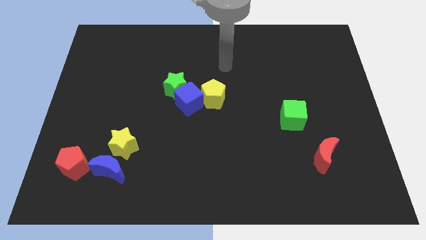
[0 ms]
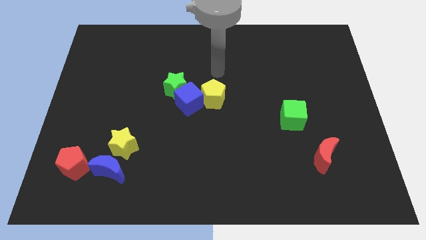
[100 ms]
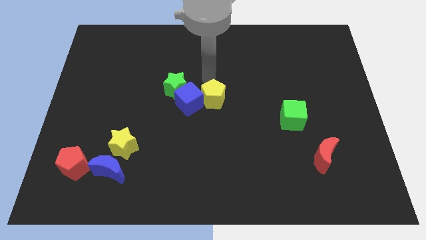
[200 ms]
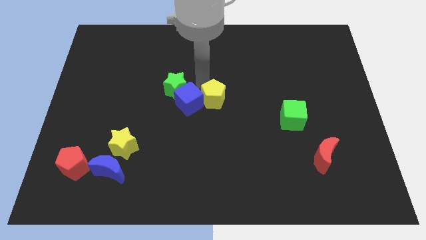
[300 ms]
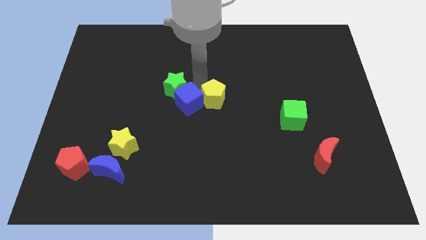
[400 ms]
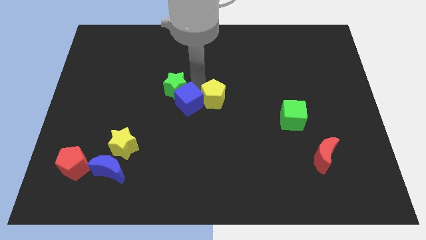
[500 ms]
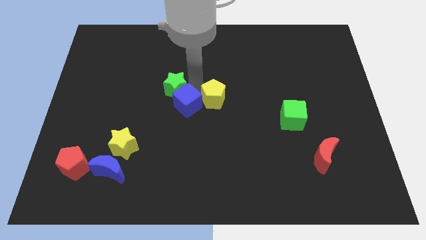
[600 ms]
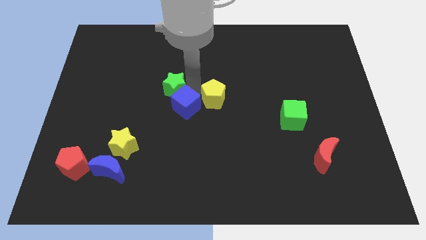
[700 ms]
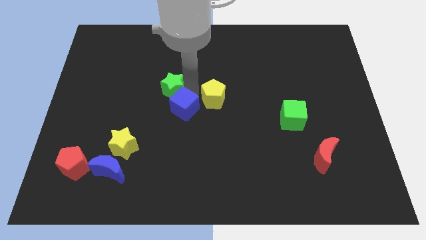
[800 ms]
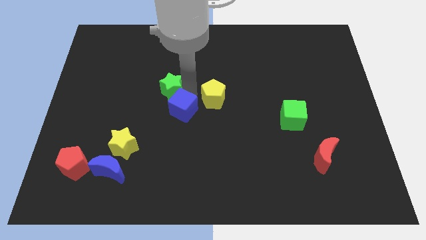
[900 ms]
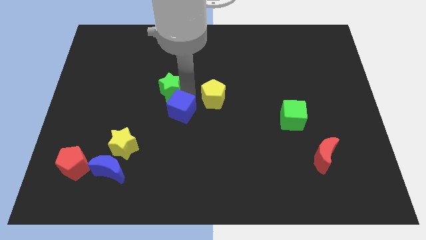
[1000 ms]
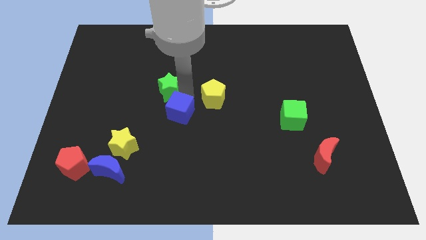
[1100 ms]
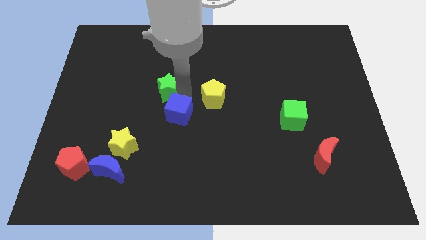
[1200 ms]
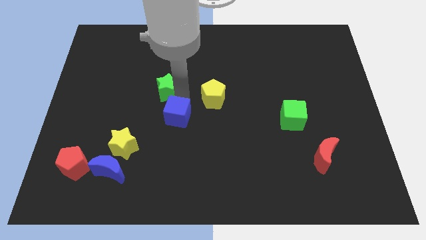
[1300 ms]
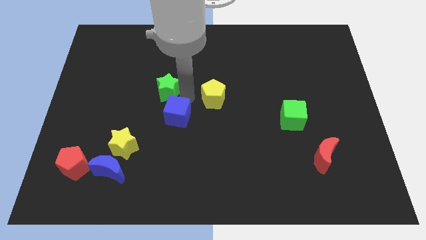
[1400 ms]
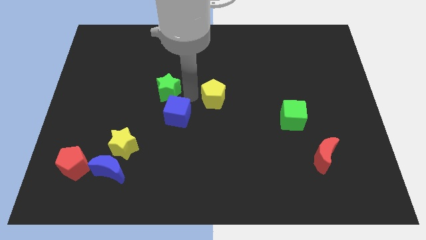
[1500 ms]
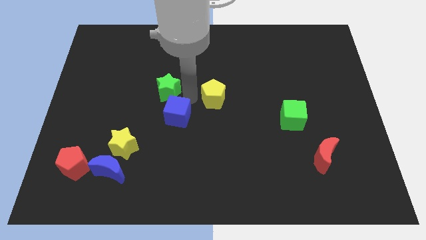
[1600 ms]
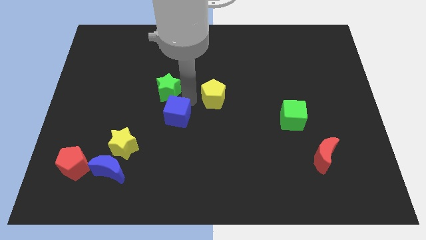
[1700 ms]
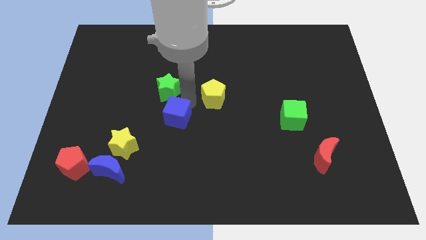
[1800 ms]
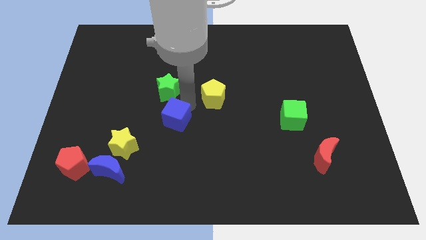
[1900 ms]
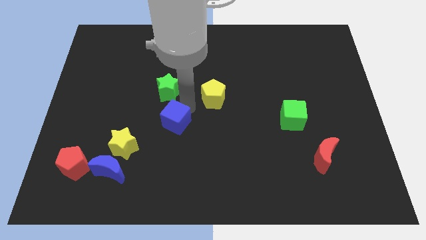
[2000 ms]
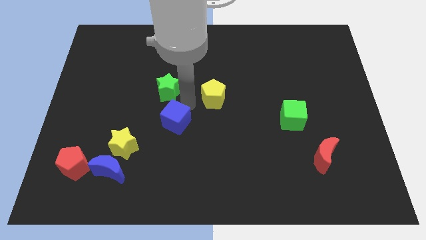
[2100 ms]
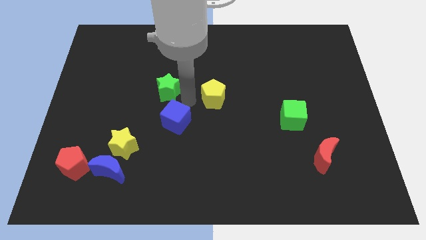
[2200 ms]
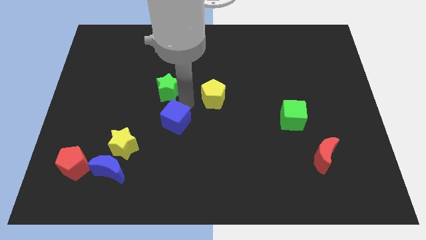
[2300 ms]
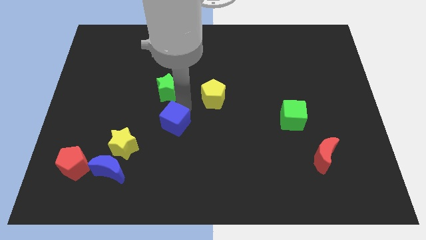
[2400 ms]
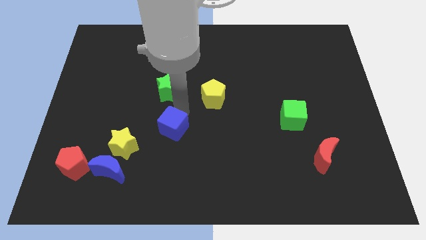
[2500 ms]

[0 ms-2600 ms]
pull the blue cube apart from the green star and yellow pentagon

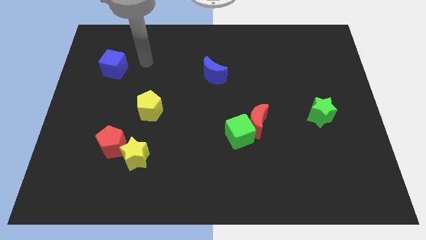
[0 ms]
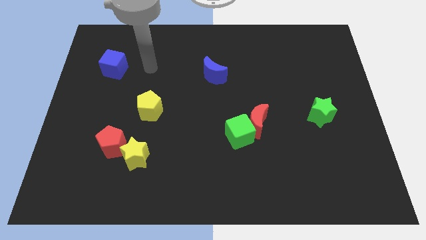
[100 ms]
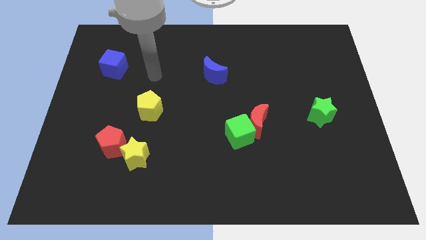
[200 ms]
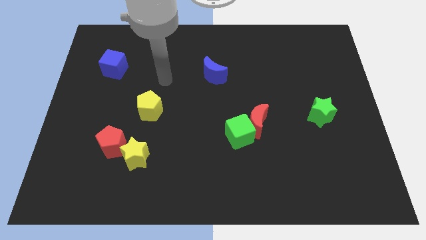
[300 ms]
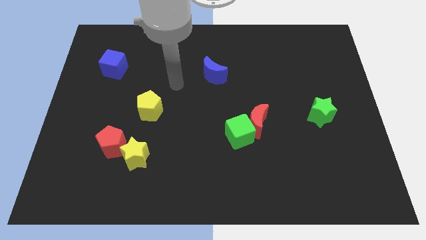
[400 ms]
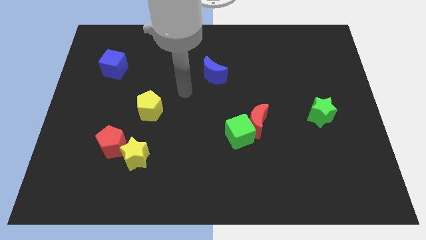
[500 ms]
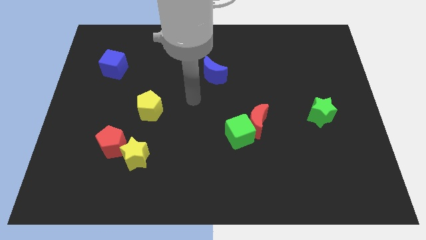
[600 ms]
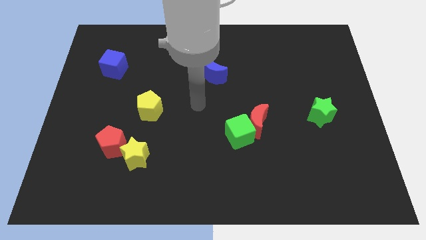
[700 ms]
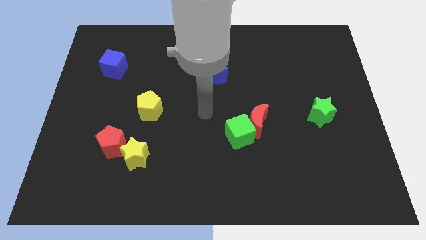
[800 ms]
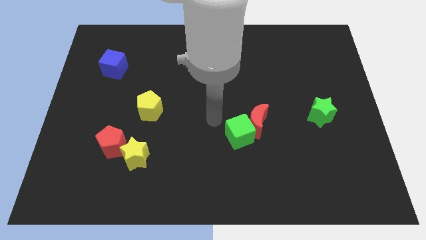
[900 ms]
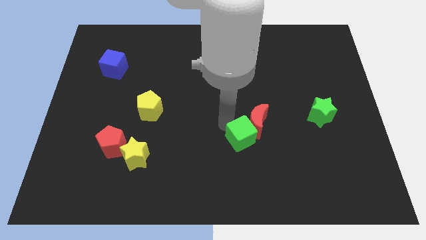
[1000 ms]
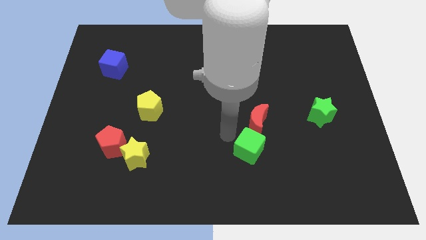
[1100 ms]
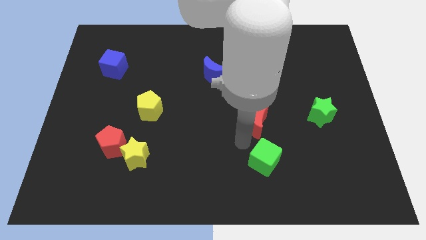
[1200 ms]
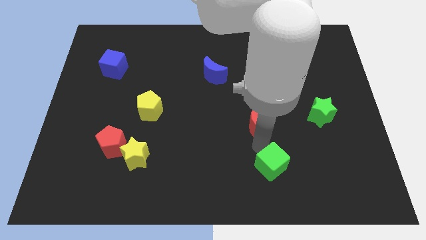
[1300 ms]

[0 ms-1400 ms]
pull the red moon apart from the green cube

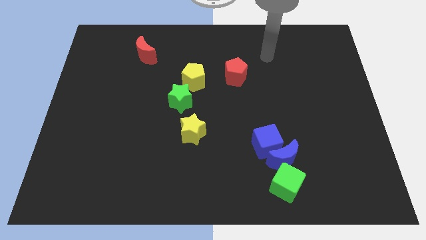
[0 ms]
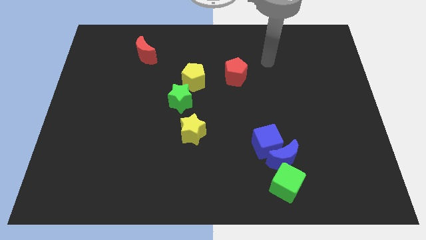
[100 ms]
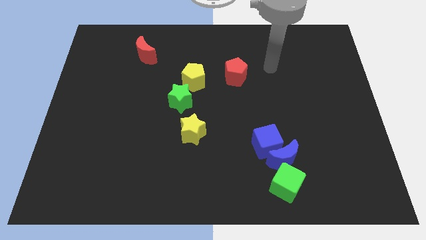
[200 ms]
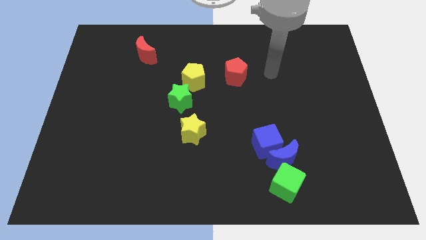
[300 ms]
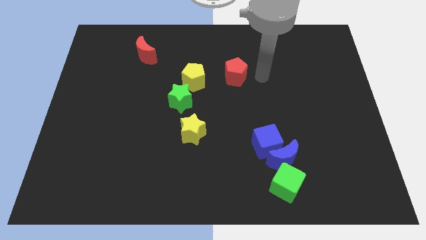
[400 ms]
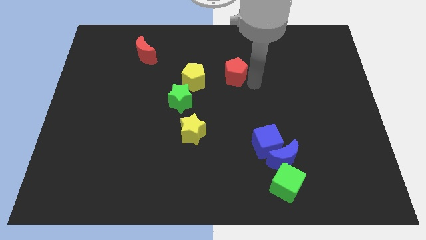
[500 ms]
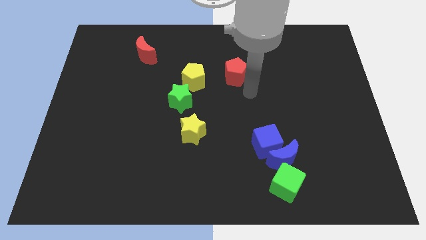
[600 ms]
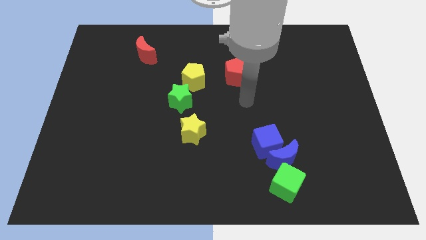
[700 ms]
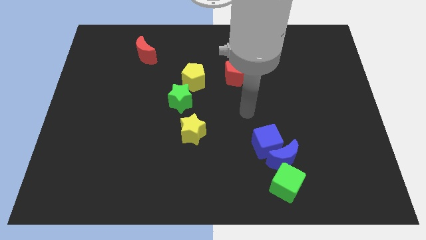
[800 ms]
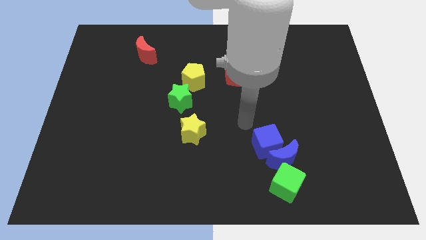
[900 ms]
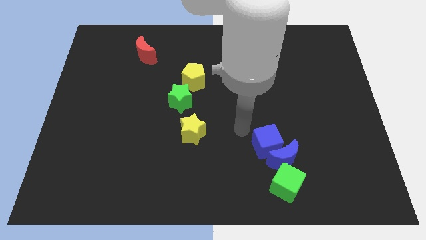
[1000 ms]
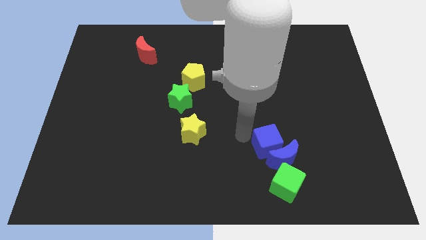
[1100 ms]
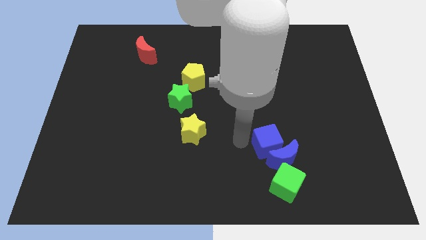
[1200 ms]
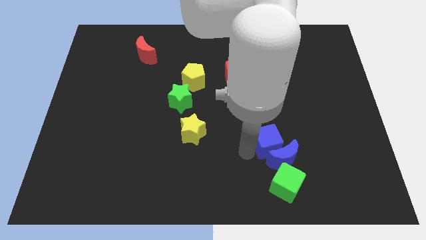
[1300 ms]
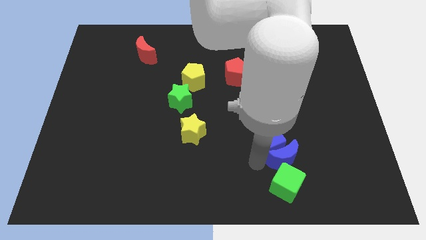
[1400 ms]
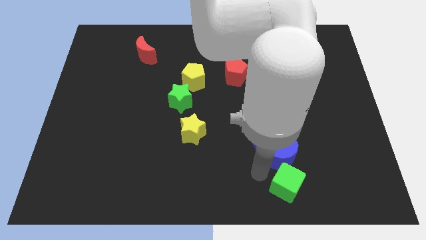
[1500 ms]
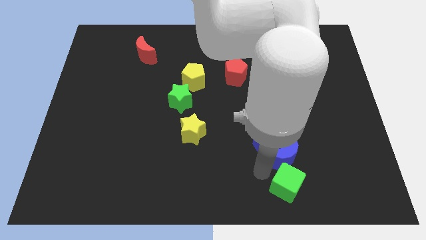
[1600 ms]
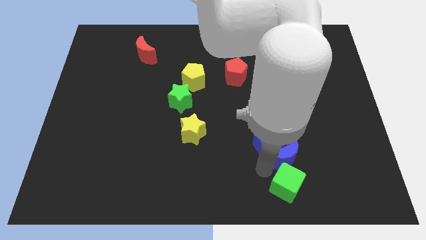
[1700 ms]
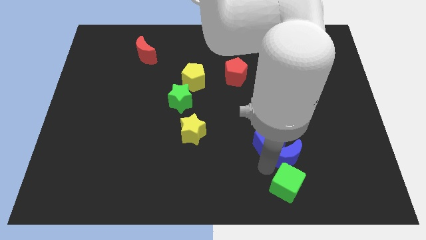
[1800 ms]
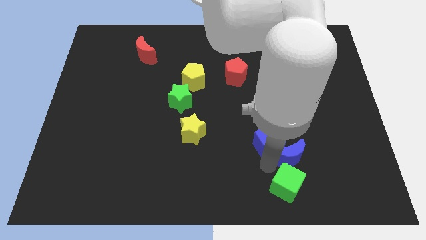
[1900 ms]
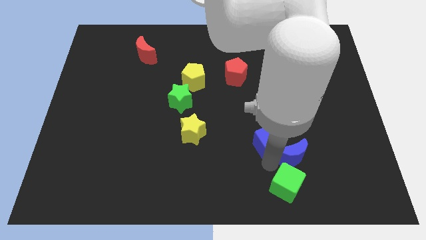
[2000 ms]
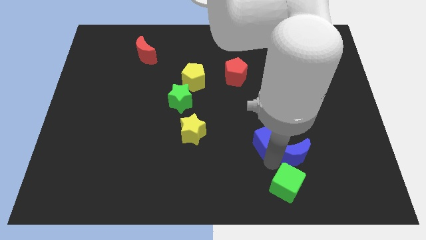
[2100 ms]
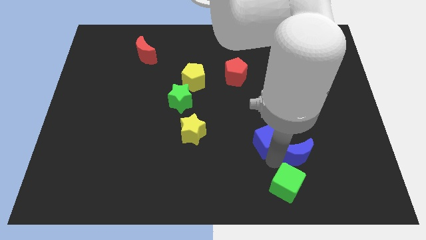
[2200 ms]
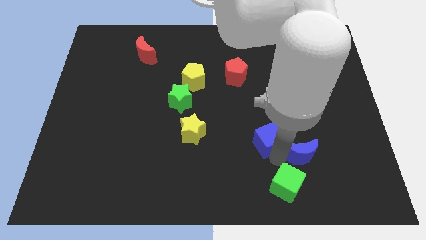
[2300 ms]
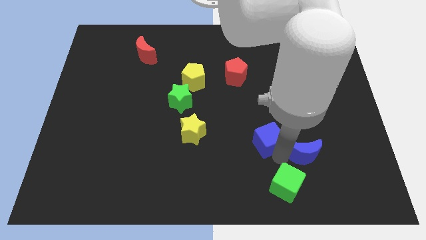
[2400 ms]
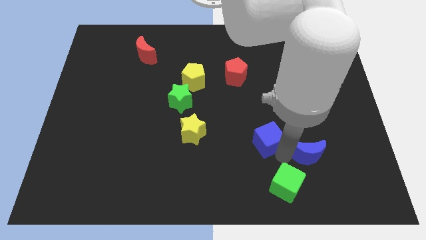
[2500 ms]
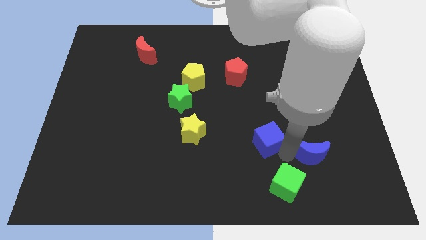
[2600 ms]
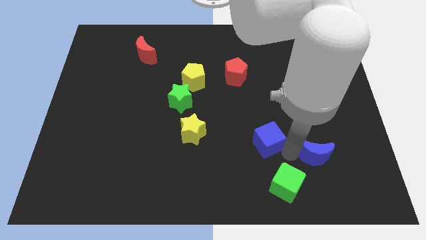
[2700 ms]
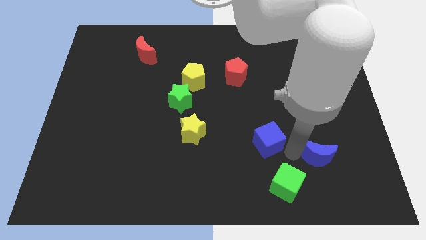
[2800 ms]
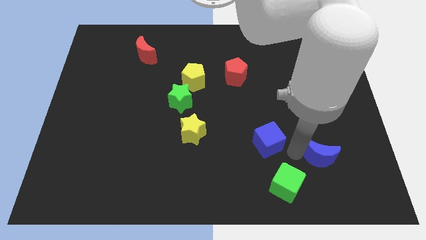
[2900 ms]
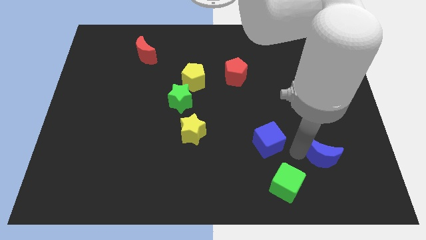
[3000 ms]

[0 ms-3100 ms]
pull the blue moon apart from the blue cube and green cube

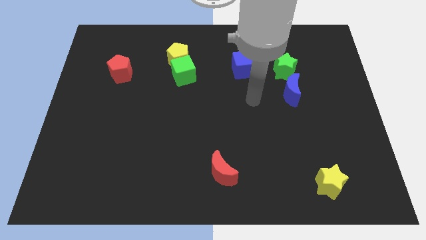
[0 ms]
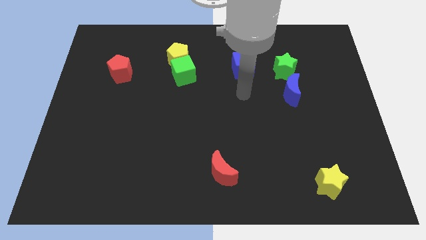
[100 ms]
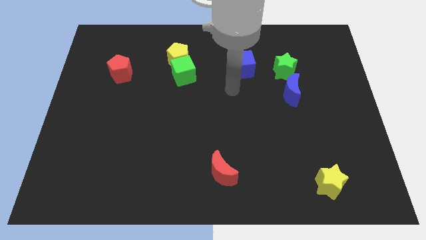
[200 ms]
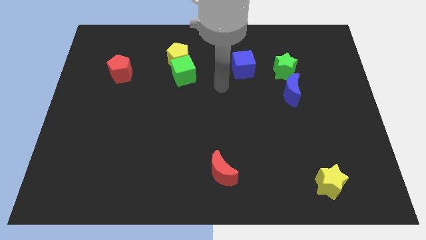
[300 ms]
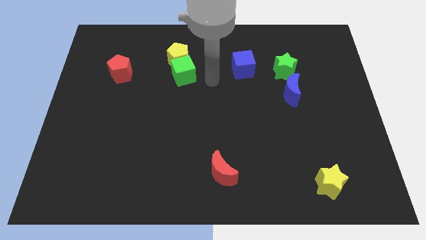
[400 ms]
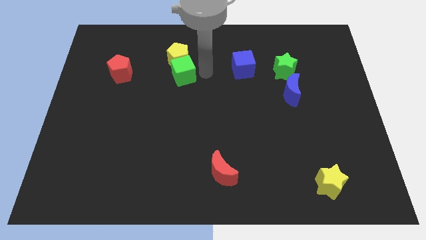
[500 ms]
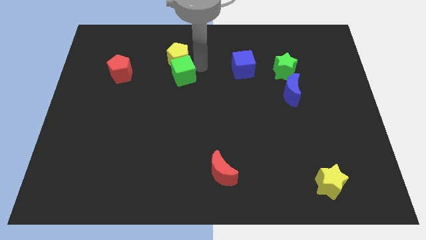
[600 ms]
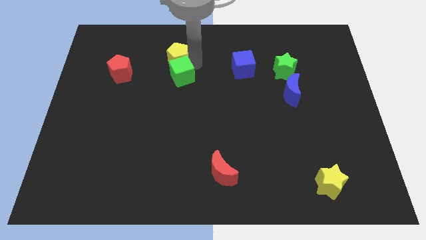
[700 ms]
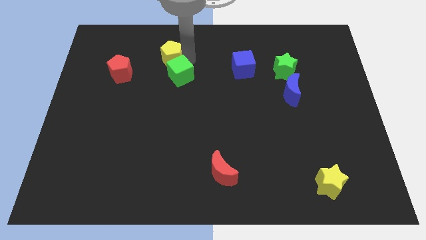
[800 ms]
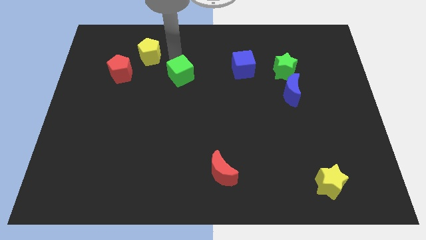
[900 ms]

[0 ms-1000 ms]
move the green cube away from the yellow pentagon

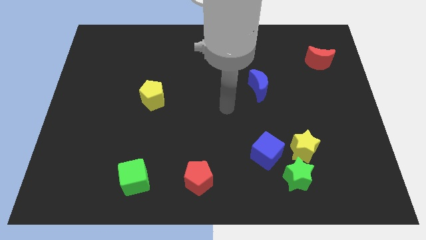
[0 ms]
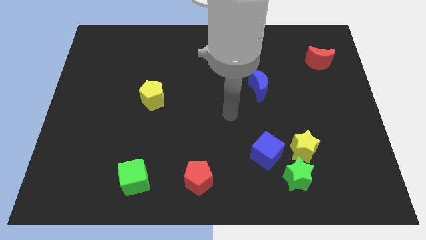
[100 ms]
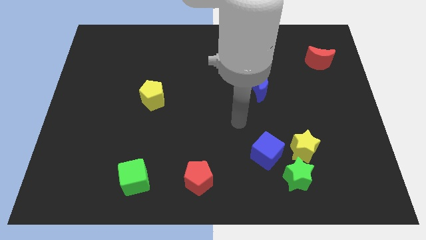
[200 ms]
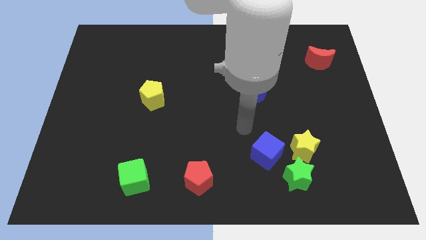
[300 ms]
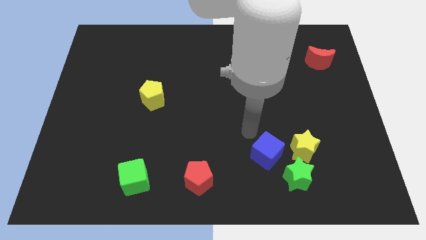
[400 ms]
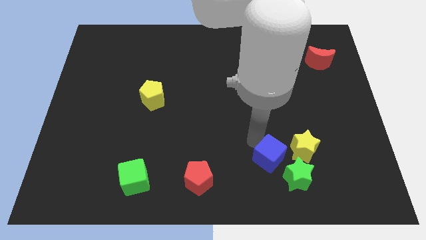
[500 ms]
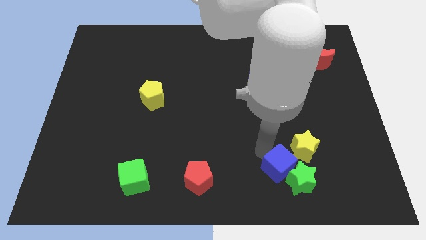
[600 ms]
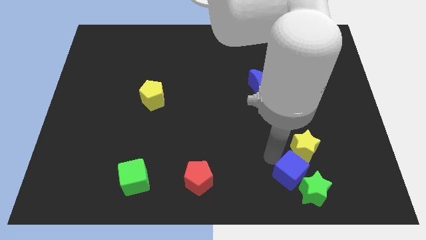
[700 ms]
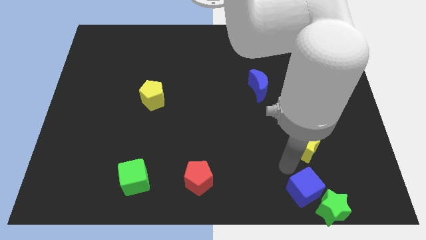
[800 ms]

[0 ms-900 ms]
separate the yellow star from the green star and blue cube

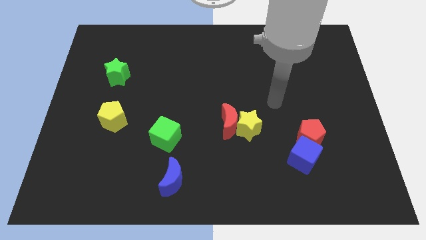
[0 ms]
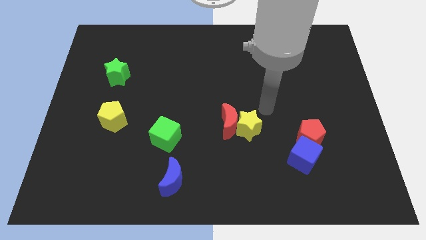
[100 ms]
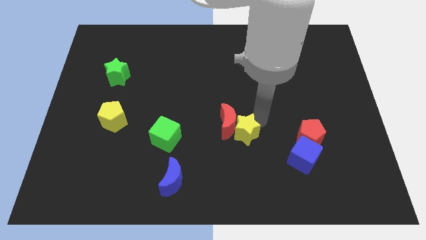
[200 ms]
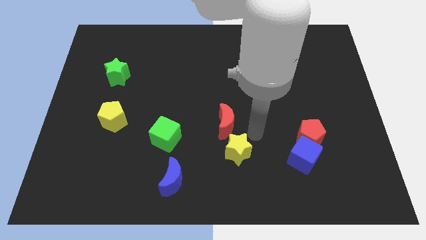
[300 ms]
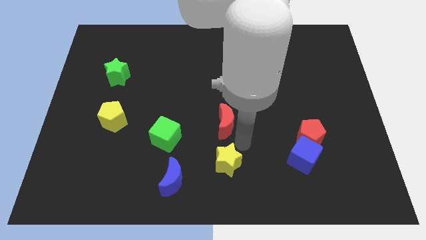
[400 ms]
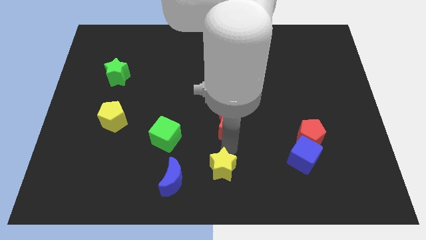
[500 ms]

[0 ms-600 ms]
separate the red moon from the yellow star
